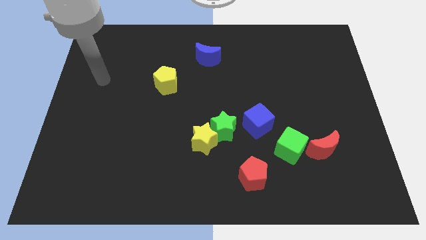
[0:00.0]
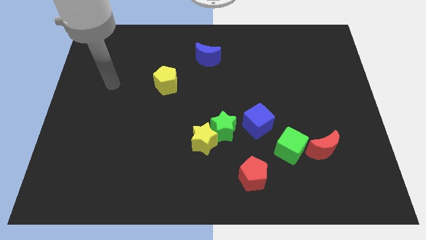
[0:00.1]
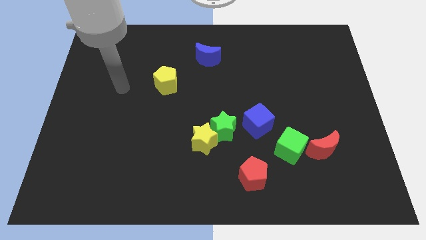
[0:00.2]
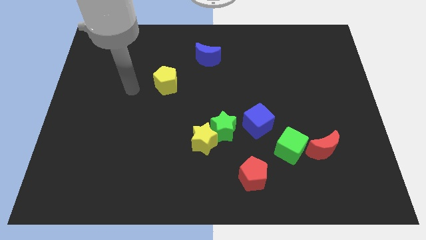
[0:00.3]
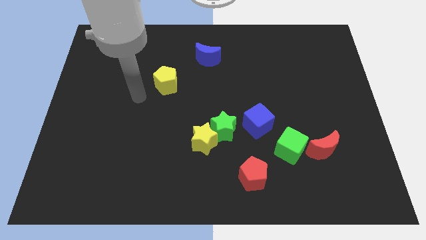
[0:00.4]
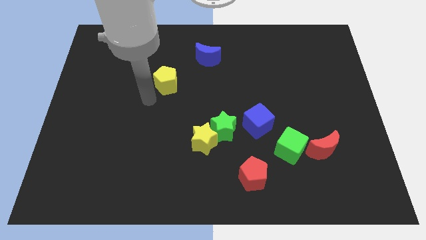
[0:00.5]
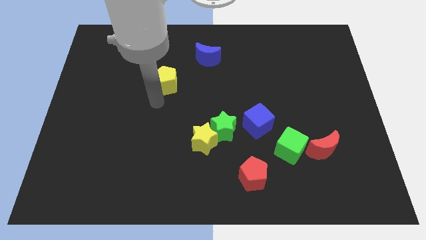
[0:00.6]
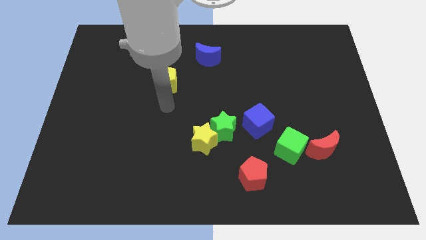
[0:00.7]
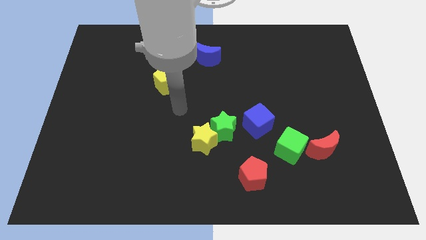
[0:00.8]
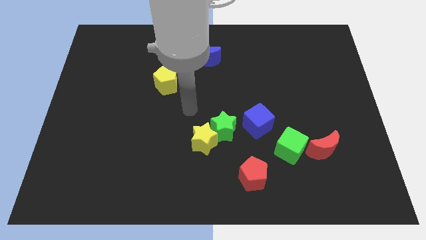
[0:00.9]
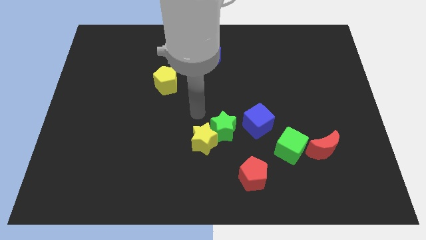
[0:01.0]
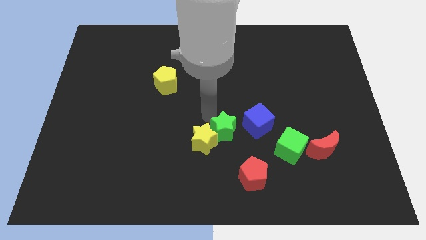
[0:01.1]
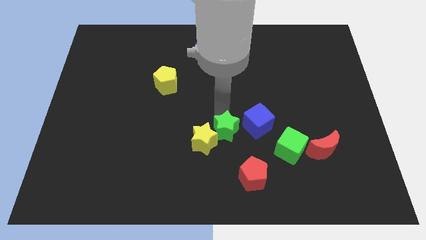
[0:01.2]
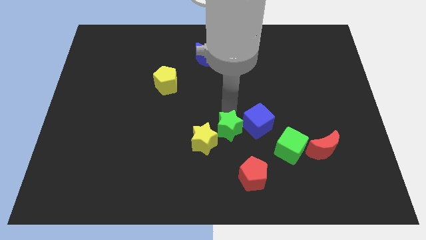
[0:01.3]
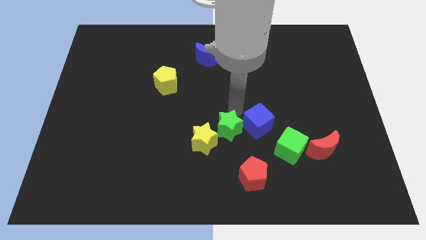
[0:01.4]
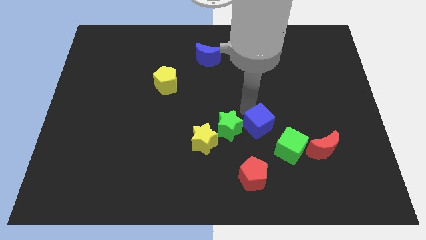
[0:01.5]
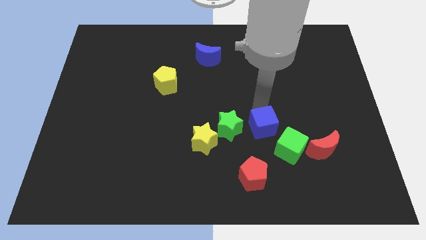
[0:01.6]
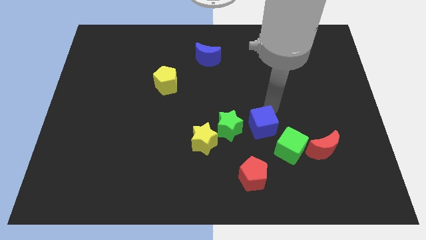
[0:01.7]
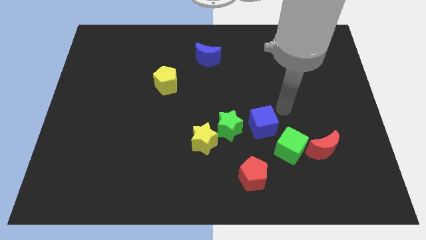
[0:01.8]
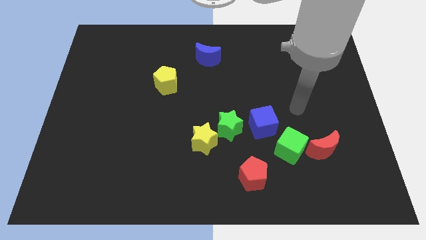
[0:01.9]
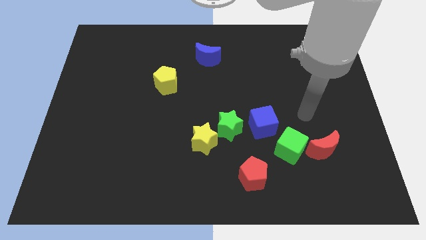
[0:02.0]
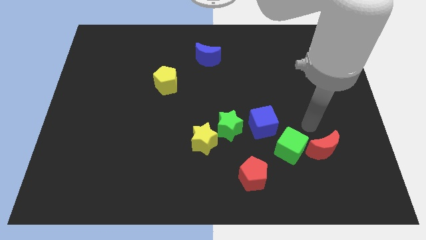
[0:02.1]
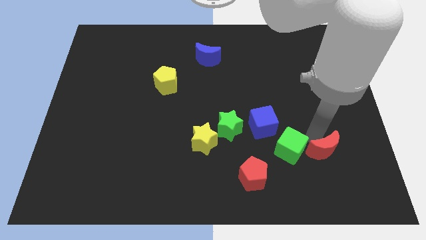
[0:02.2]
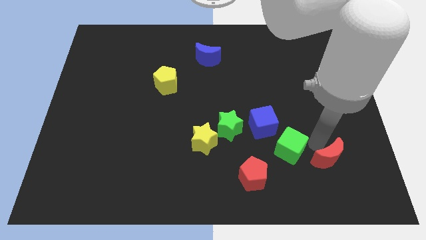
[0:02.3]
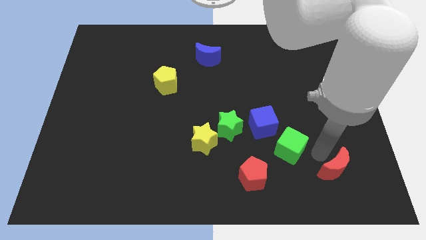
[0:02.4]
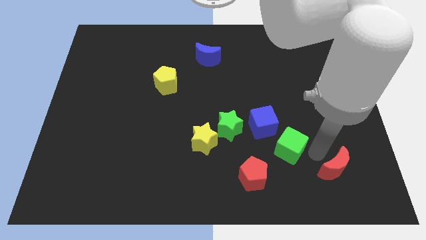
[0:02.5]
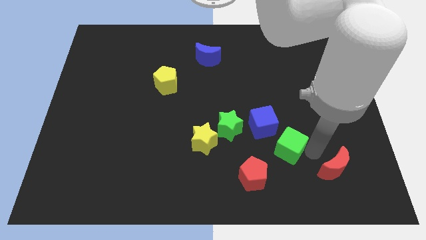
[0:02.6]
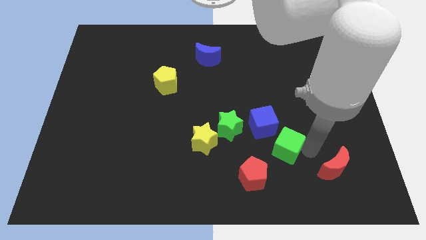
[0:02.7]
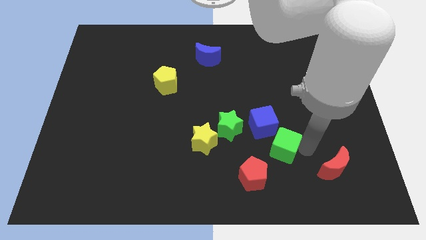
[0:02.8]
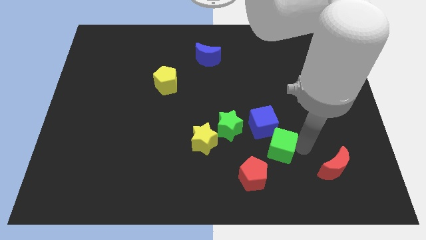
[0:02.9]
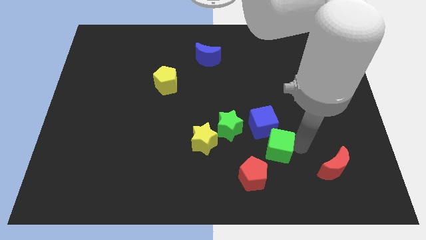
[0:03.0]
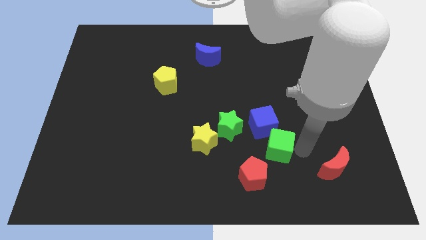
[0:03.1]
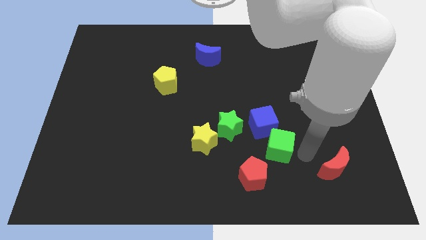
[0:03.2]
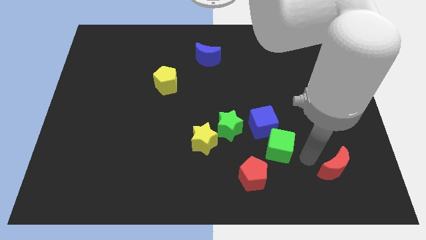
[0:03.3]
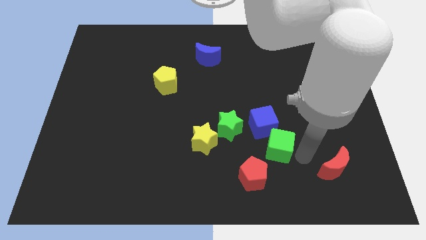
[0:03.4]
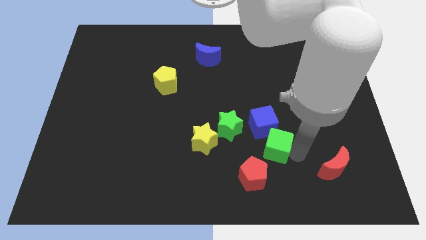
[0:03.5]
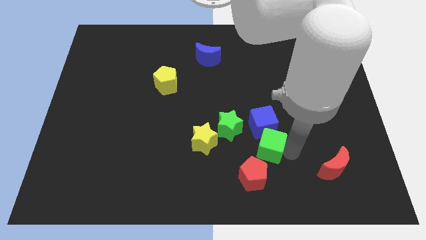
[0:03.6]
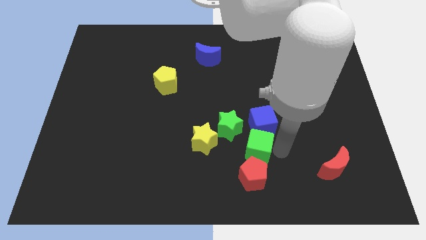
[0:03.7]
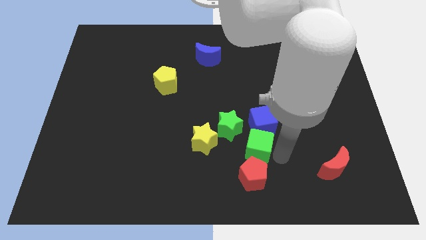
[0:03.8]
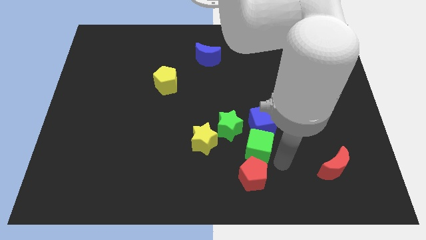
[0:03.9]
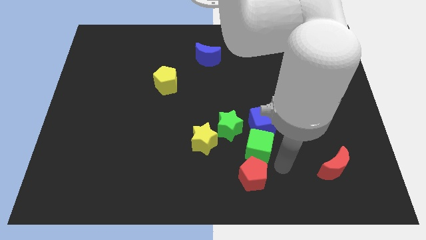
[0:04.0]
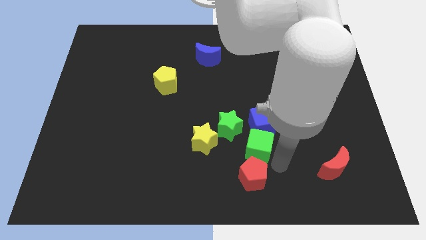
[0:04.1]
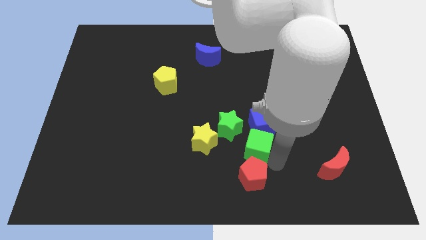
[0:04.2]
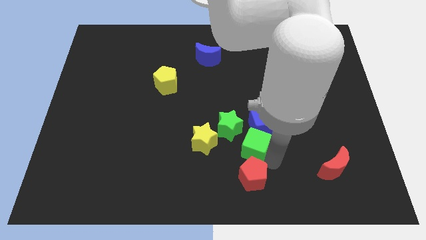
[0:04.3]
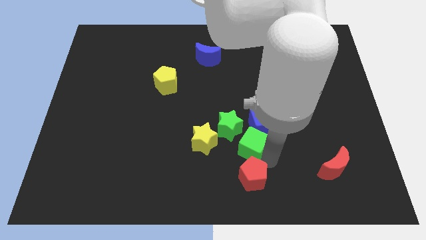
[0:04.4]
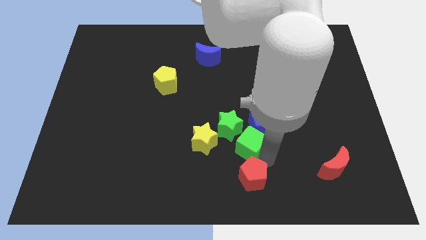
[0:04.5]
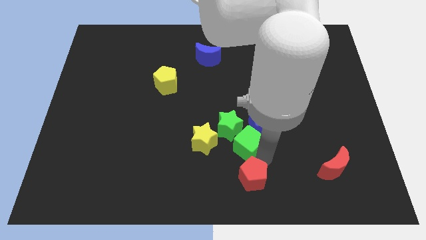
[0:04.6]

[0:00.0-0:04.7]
move the green cube next to the green star

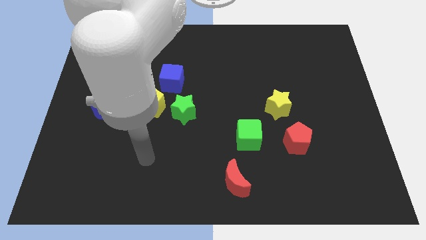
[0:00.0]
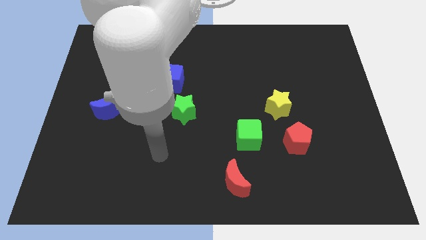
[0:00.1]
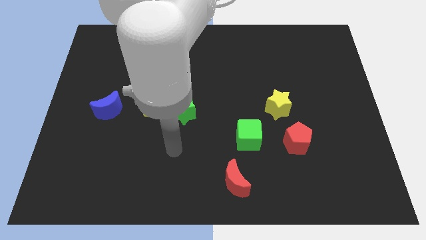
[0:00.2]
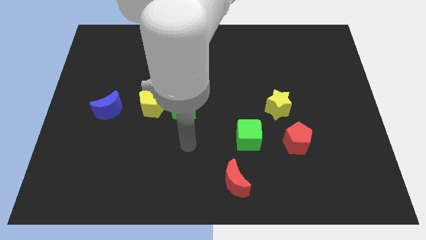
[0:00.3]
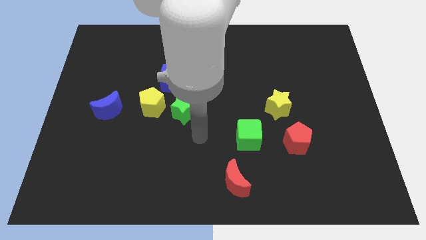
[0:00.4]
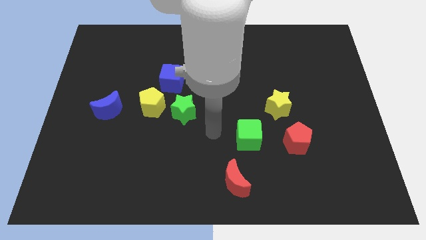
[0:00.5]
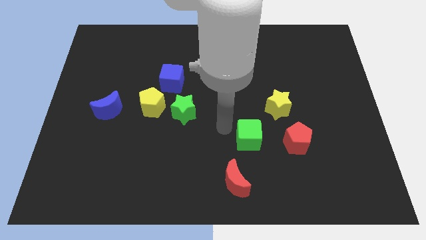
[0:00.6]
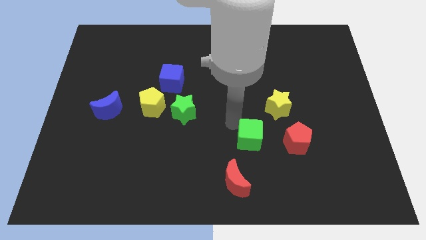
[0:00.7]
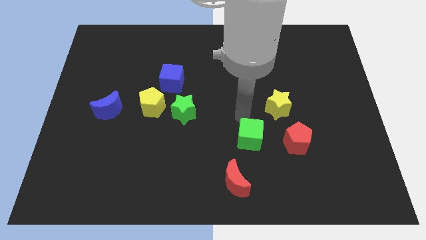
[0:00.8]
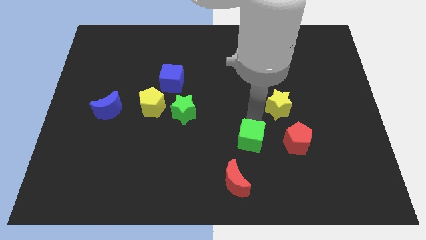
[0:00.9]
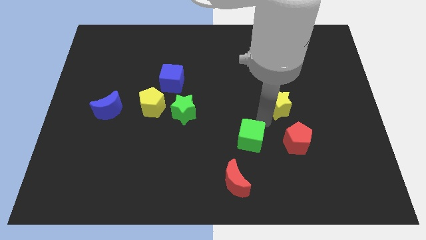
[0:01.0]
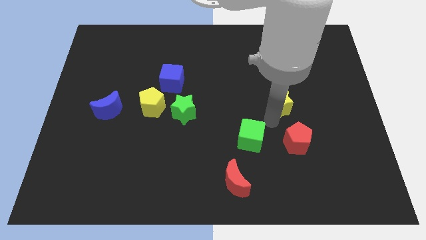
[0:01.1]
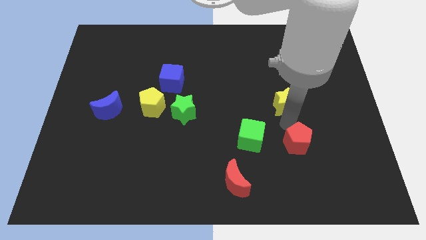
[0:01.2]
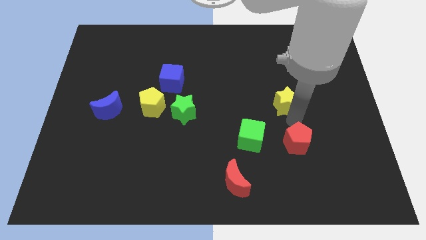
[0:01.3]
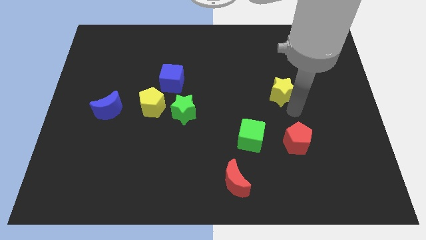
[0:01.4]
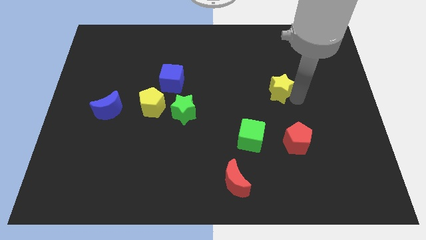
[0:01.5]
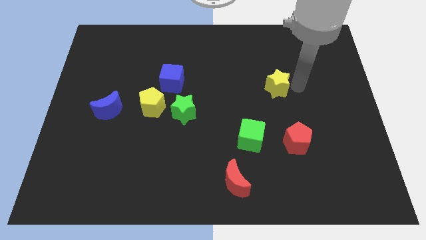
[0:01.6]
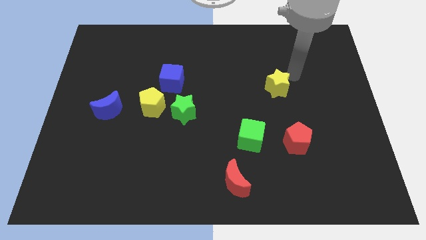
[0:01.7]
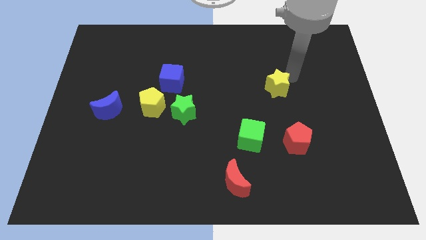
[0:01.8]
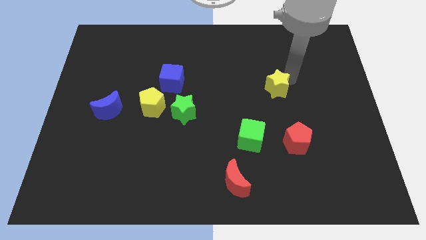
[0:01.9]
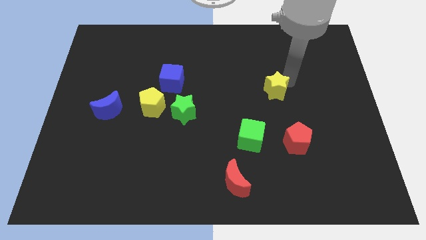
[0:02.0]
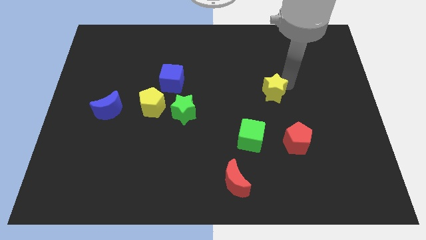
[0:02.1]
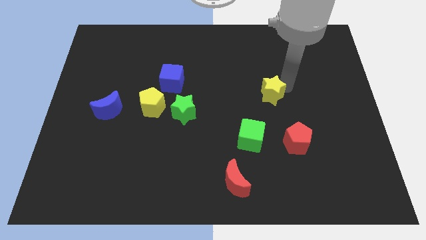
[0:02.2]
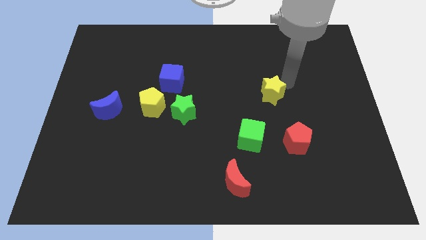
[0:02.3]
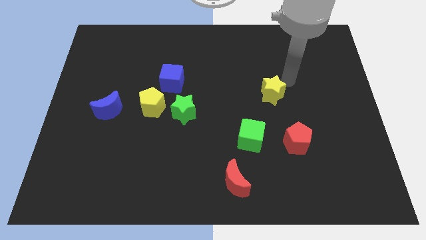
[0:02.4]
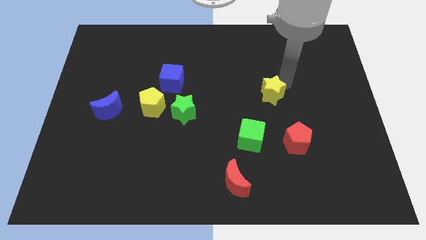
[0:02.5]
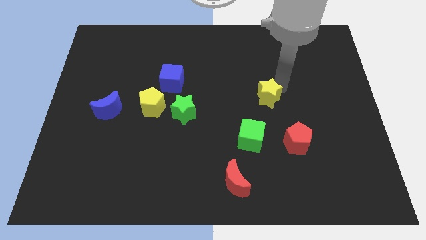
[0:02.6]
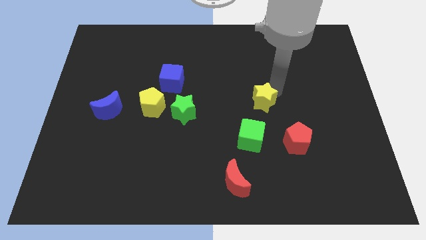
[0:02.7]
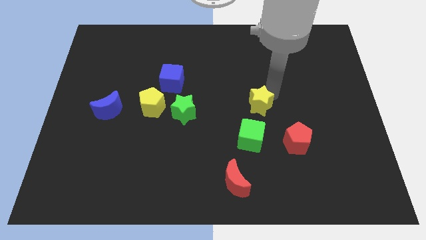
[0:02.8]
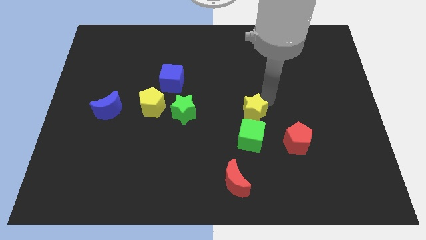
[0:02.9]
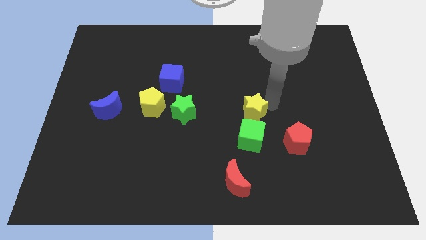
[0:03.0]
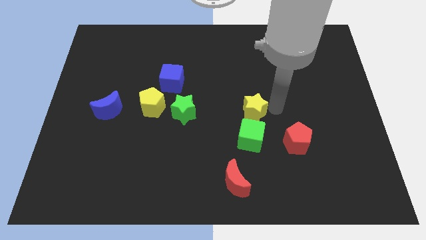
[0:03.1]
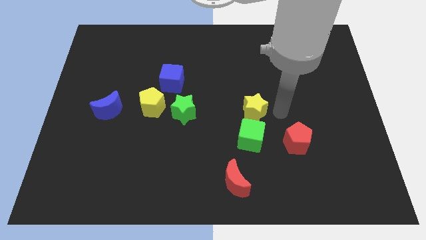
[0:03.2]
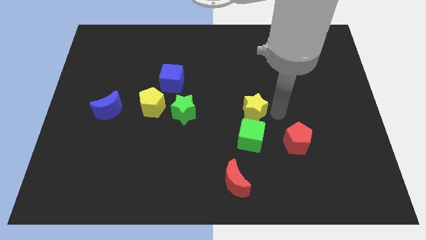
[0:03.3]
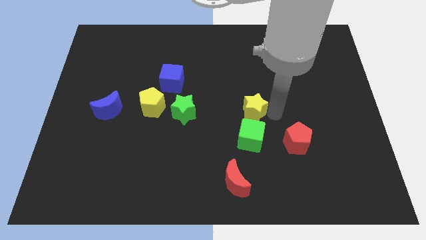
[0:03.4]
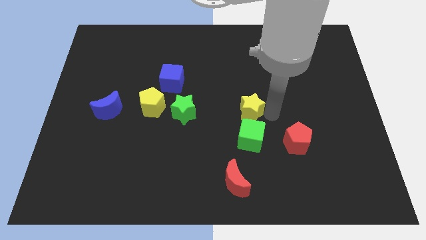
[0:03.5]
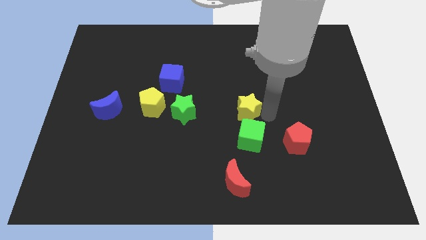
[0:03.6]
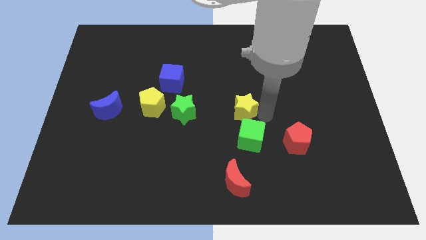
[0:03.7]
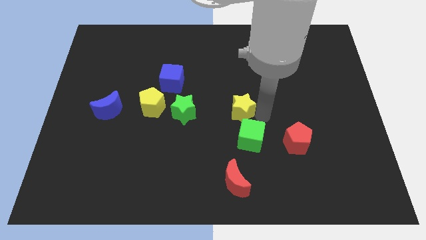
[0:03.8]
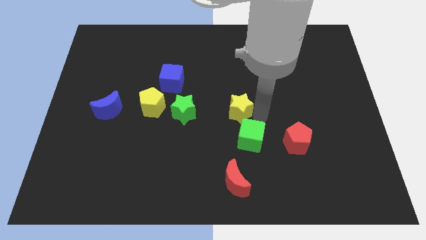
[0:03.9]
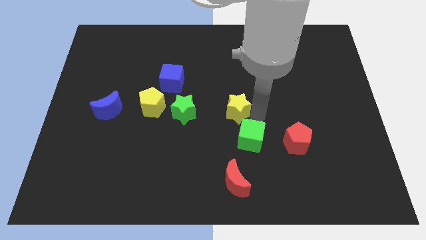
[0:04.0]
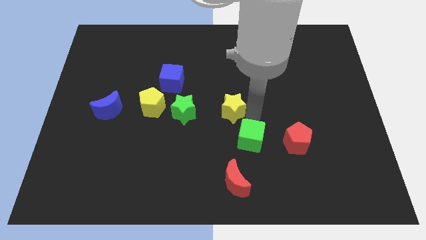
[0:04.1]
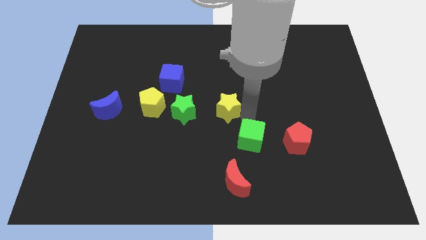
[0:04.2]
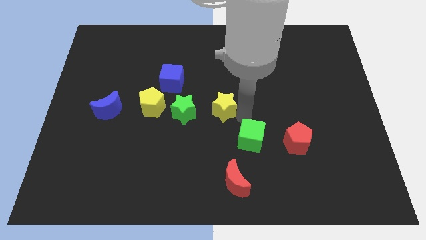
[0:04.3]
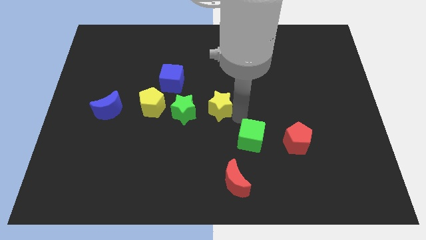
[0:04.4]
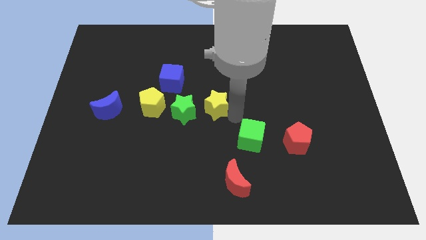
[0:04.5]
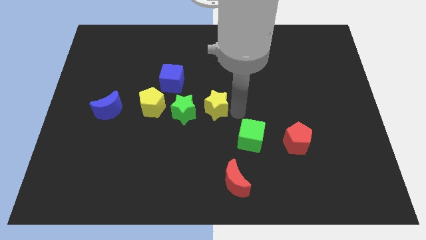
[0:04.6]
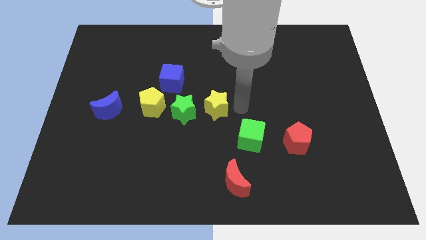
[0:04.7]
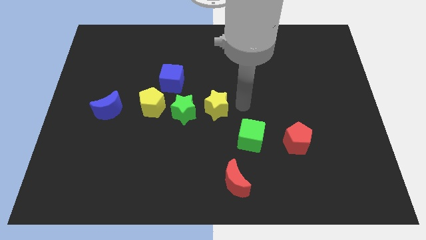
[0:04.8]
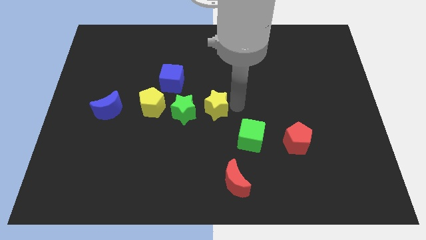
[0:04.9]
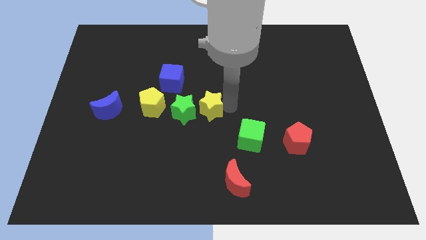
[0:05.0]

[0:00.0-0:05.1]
move the yellow star towards the green star
